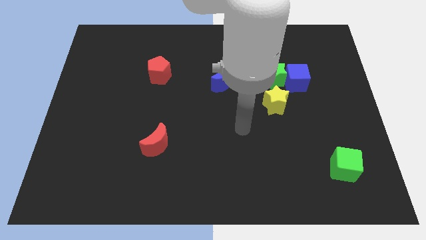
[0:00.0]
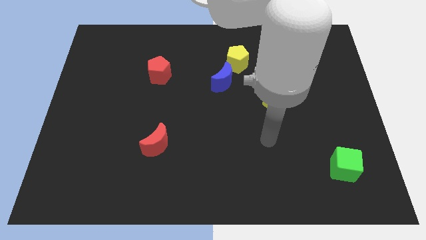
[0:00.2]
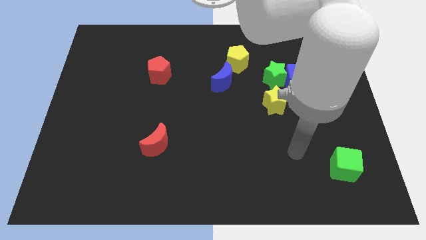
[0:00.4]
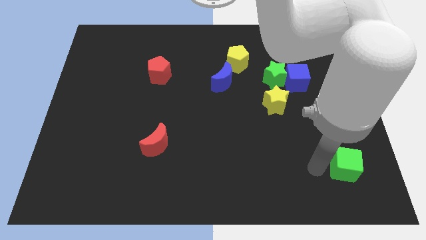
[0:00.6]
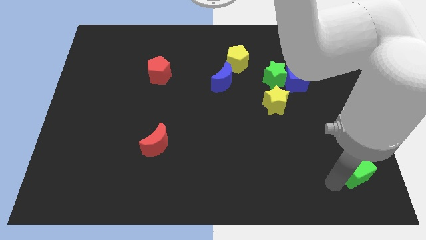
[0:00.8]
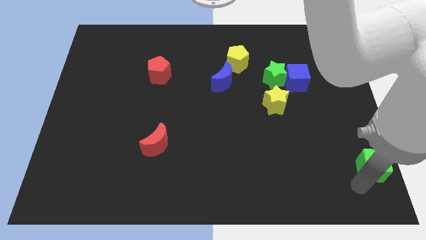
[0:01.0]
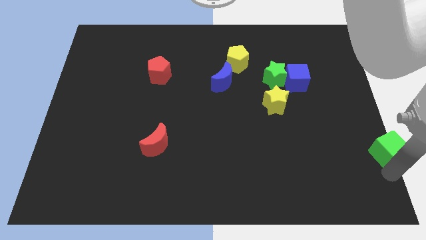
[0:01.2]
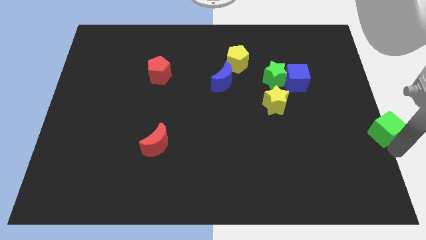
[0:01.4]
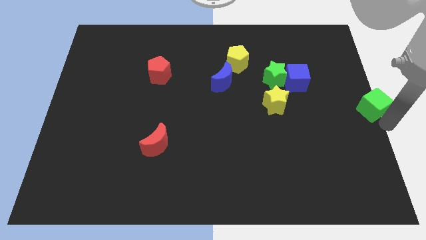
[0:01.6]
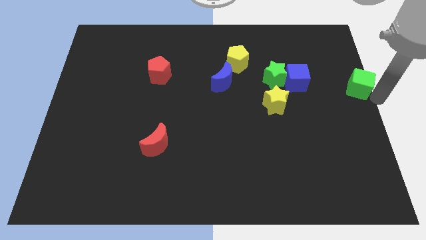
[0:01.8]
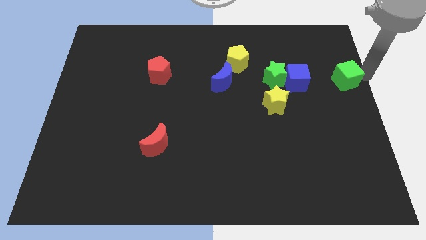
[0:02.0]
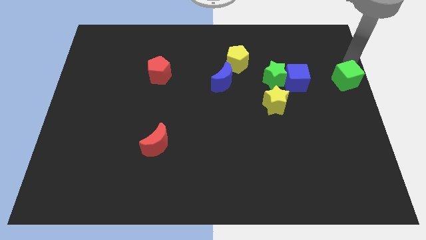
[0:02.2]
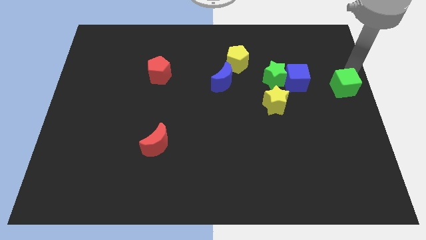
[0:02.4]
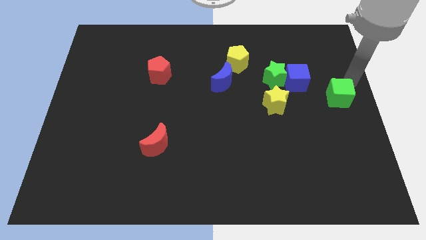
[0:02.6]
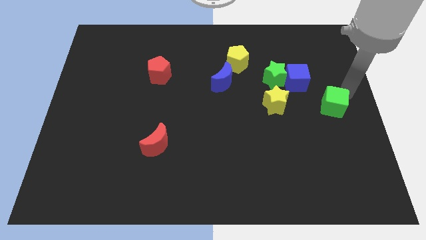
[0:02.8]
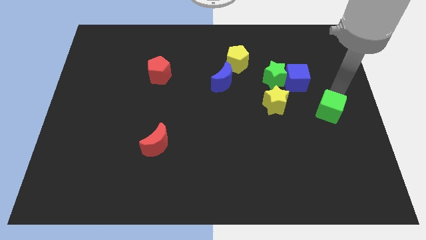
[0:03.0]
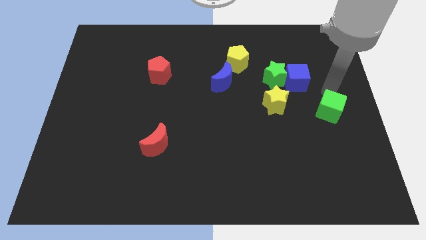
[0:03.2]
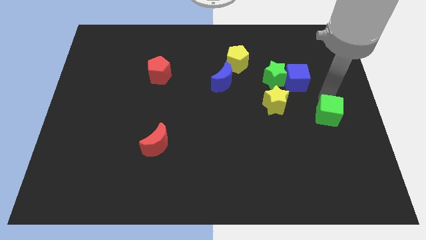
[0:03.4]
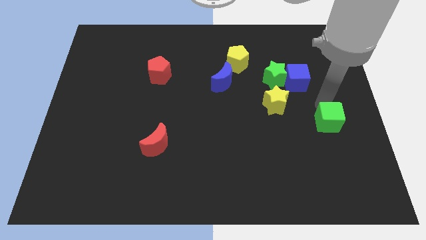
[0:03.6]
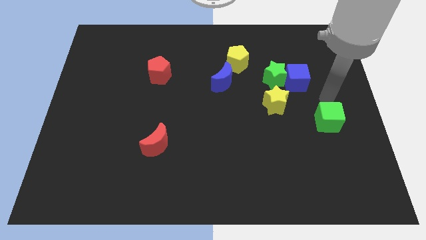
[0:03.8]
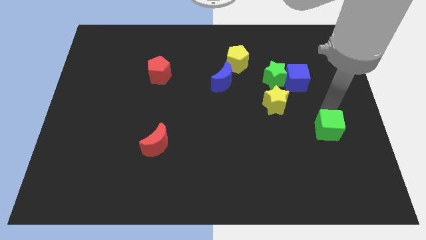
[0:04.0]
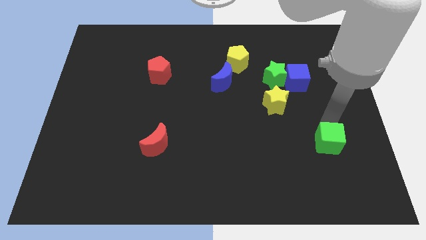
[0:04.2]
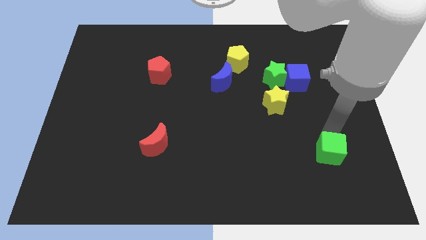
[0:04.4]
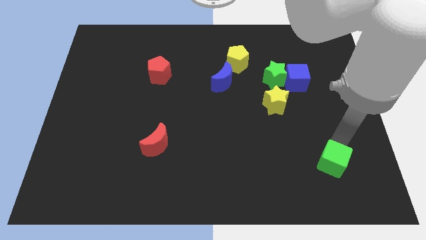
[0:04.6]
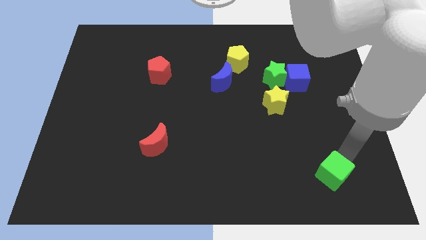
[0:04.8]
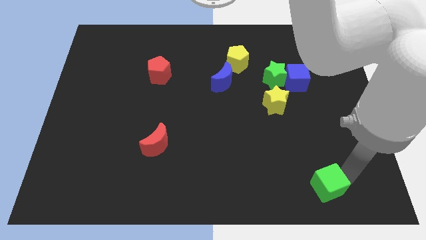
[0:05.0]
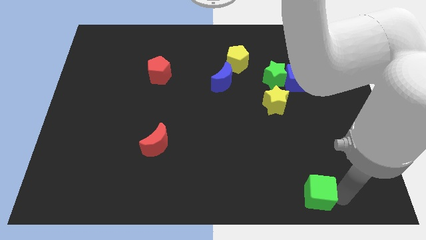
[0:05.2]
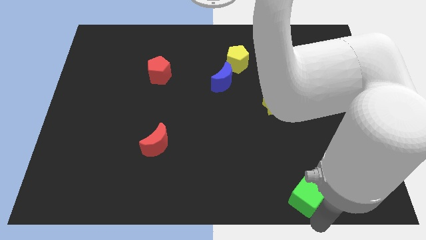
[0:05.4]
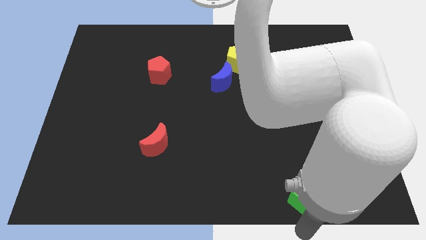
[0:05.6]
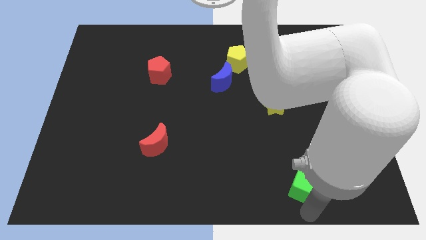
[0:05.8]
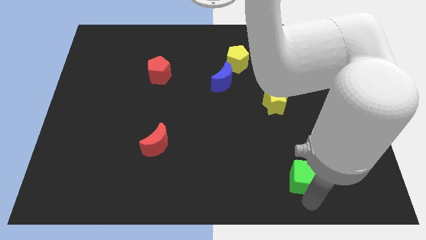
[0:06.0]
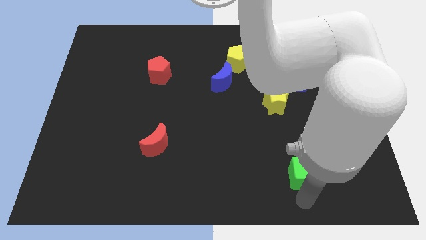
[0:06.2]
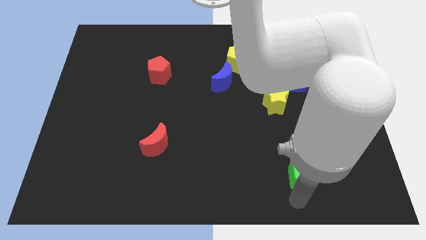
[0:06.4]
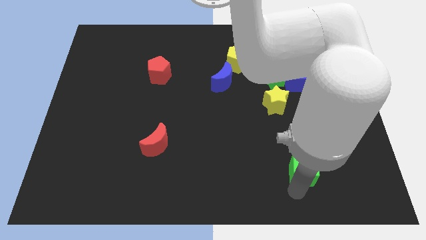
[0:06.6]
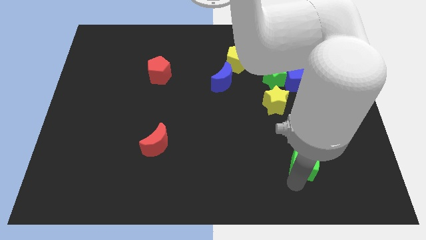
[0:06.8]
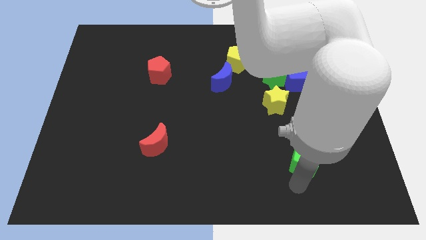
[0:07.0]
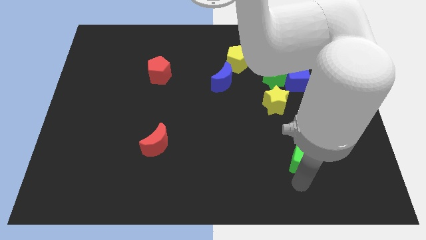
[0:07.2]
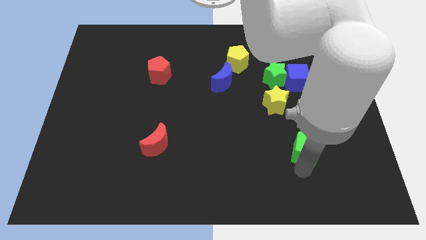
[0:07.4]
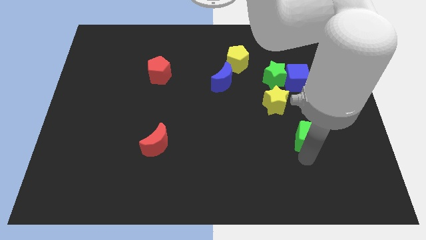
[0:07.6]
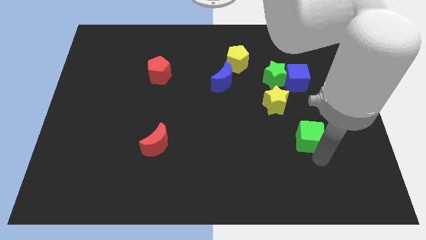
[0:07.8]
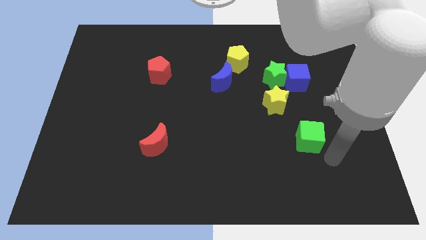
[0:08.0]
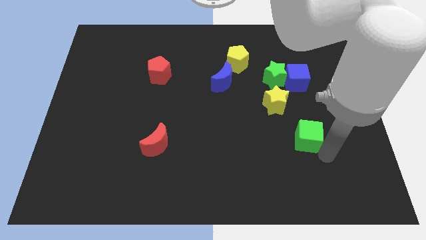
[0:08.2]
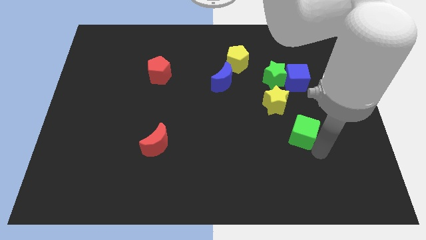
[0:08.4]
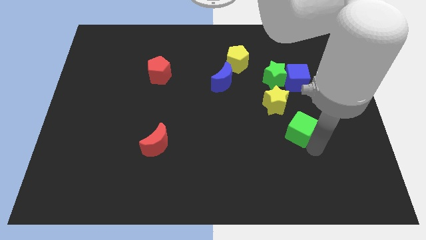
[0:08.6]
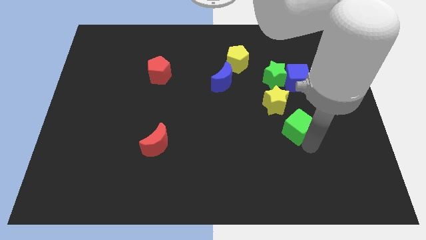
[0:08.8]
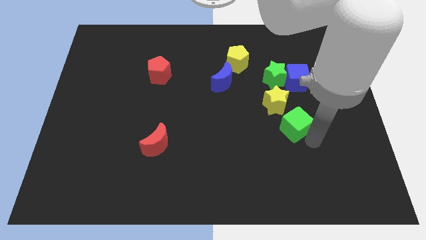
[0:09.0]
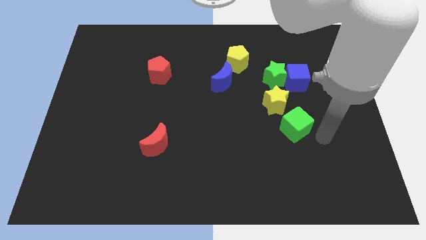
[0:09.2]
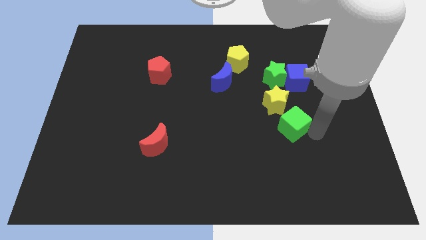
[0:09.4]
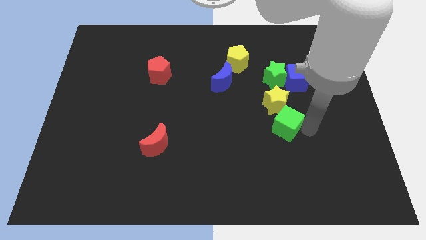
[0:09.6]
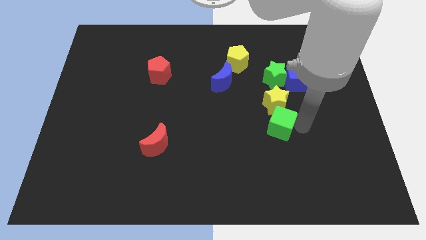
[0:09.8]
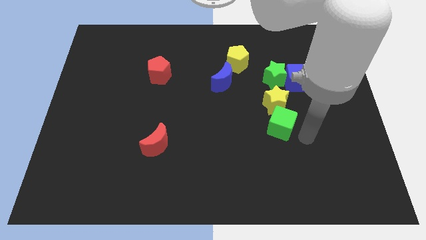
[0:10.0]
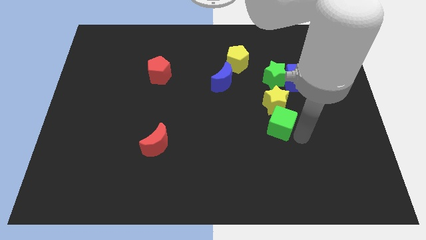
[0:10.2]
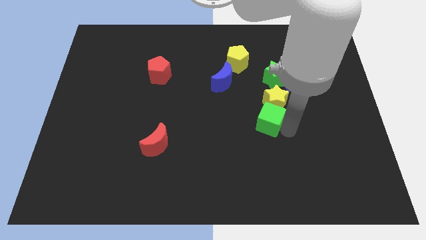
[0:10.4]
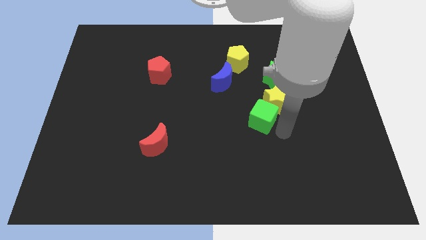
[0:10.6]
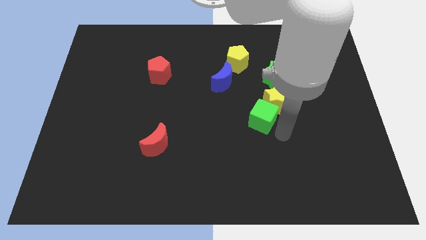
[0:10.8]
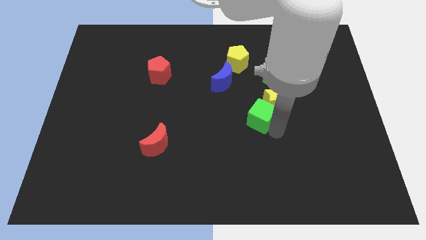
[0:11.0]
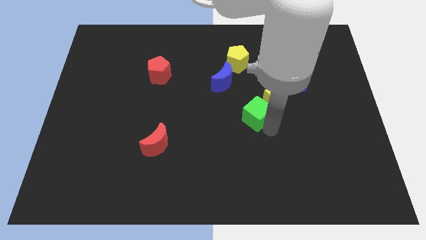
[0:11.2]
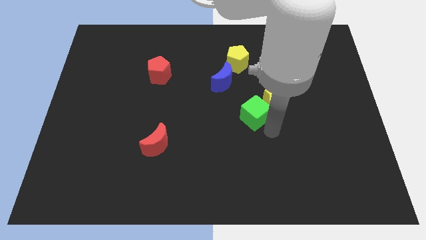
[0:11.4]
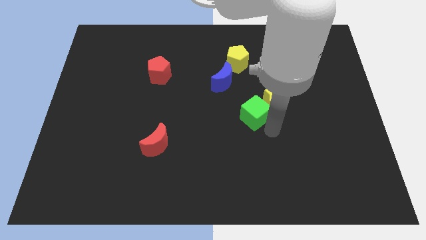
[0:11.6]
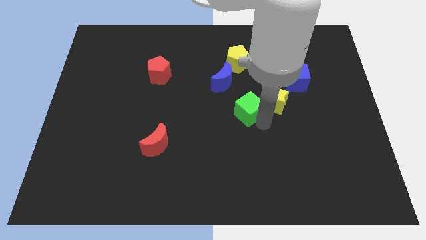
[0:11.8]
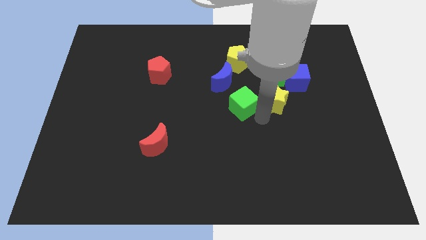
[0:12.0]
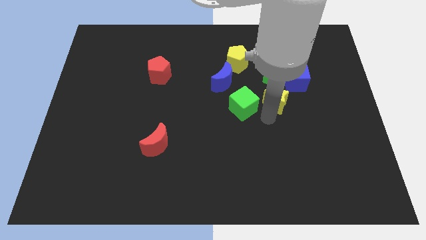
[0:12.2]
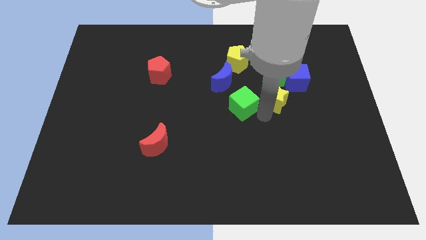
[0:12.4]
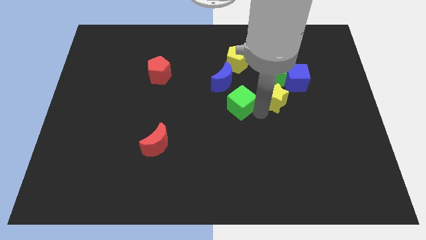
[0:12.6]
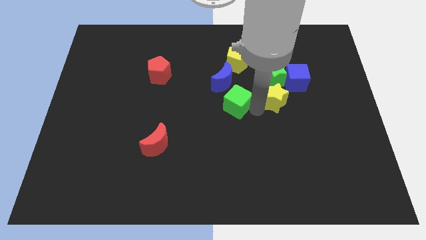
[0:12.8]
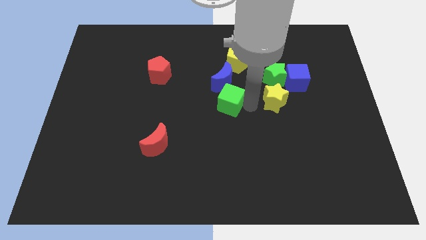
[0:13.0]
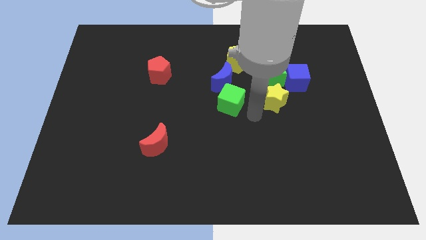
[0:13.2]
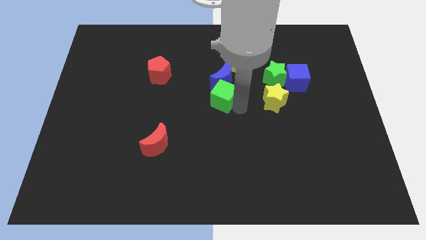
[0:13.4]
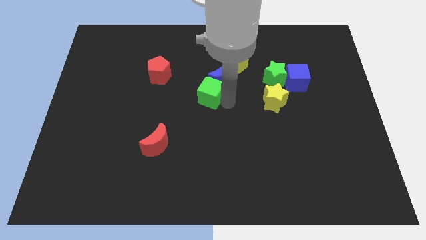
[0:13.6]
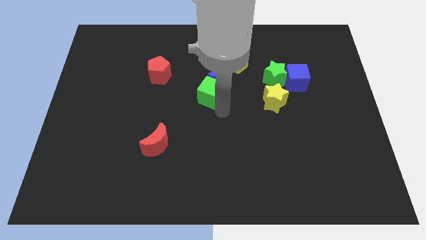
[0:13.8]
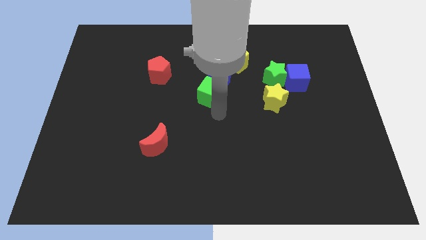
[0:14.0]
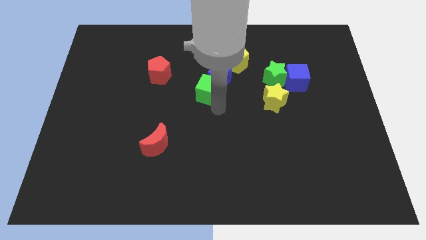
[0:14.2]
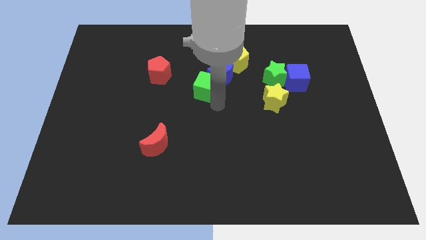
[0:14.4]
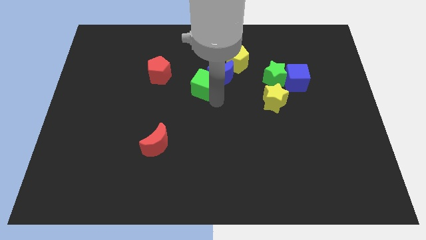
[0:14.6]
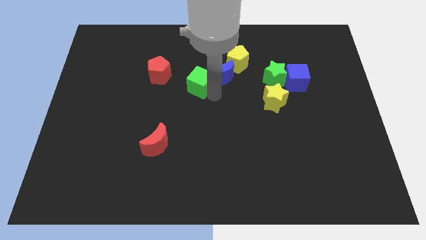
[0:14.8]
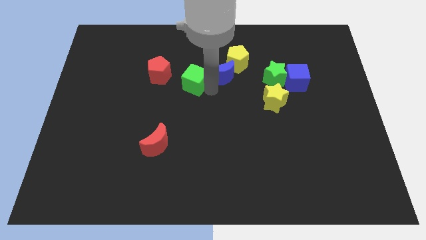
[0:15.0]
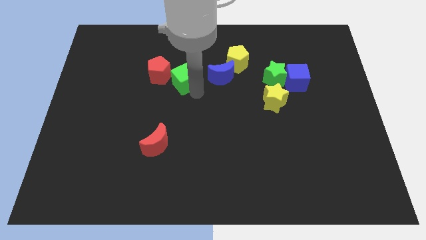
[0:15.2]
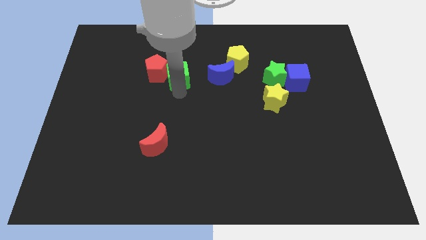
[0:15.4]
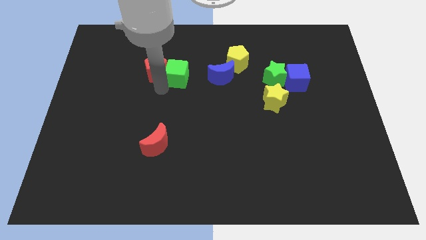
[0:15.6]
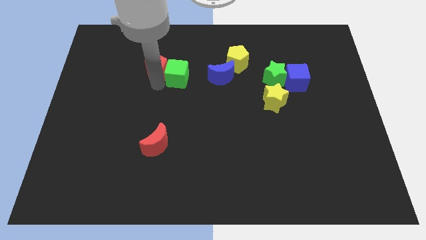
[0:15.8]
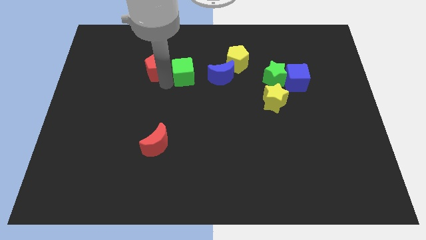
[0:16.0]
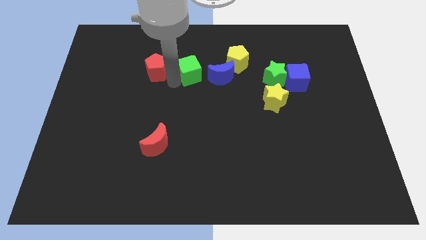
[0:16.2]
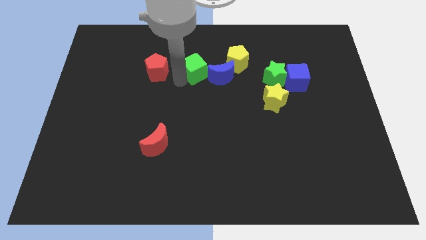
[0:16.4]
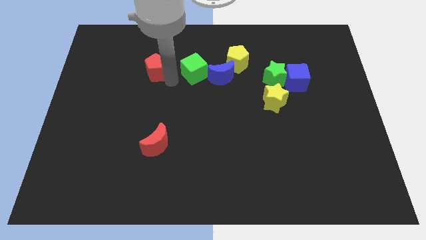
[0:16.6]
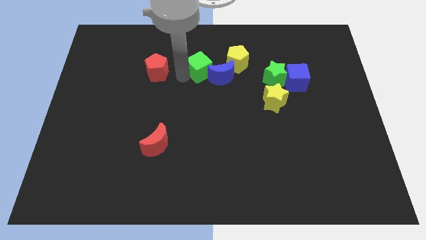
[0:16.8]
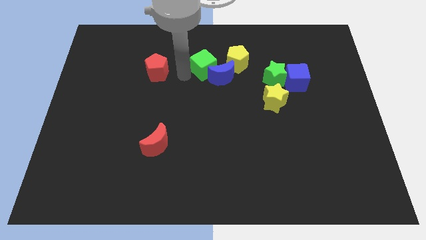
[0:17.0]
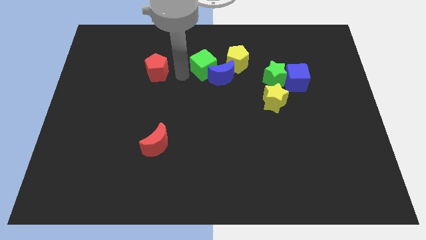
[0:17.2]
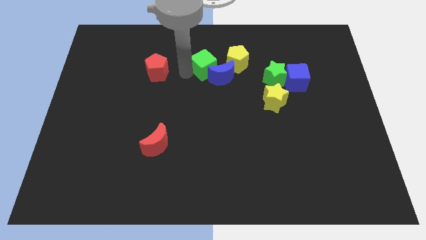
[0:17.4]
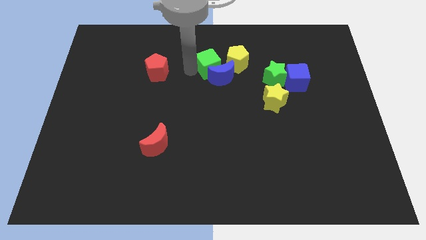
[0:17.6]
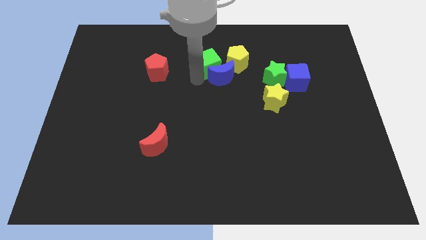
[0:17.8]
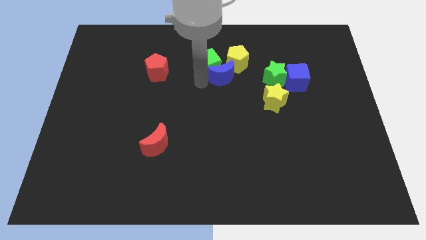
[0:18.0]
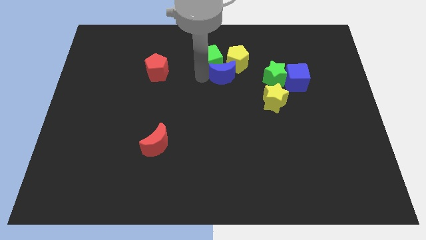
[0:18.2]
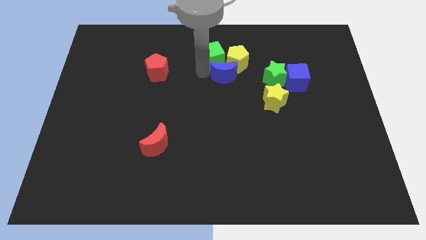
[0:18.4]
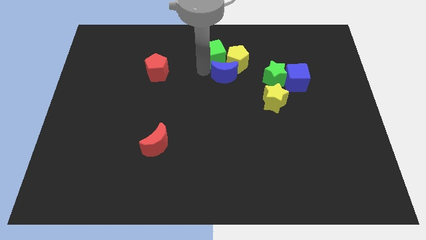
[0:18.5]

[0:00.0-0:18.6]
push the green cube to the top side
